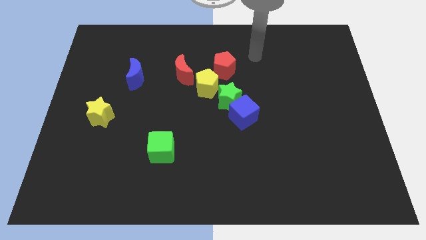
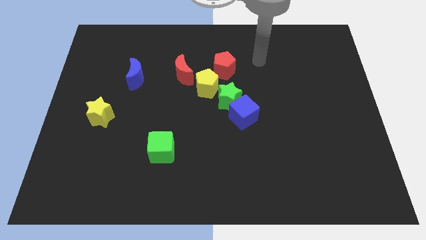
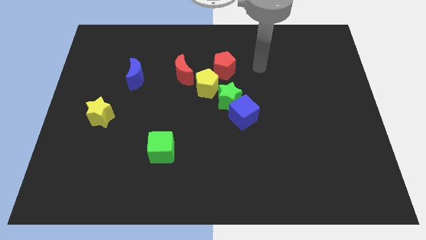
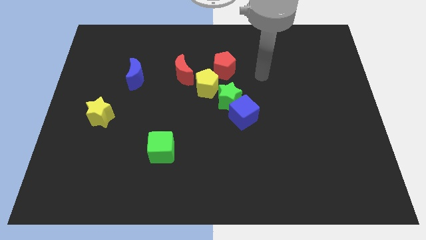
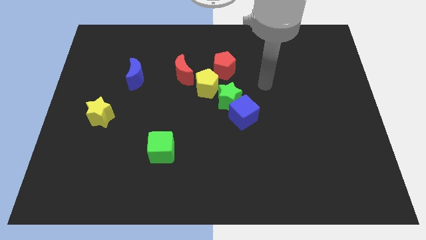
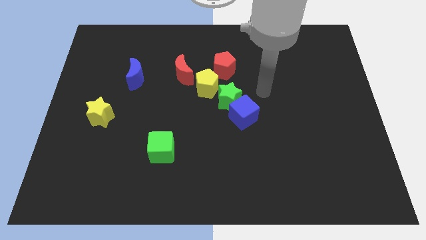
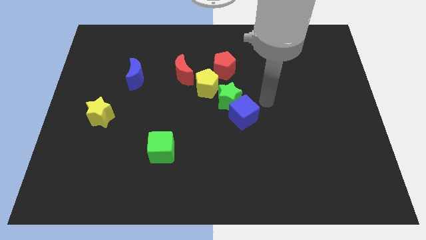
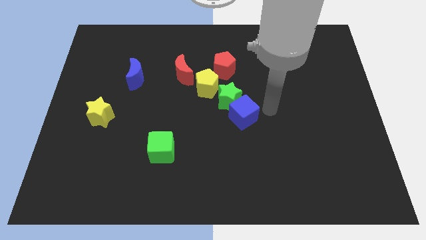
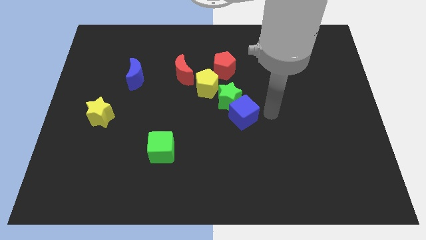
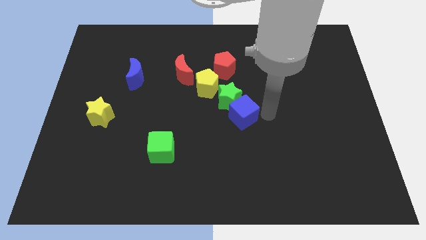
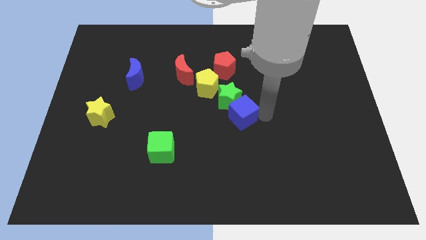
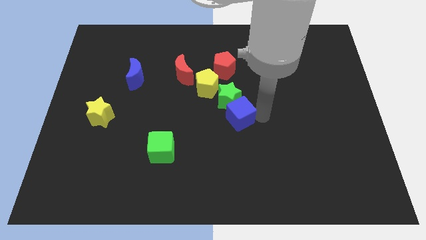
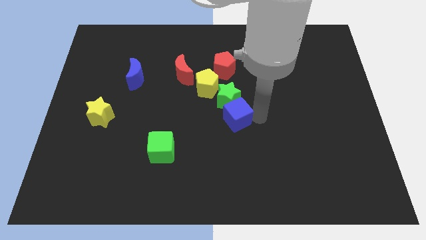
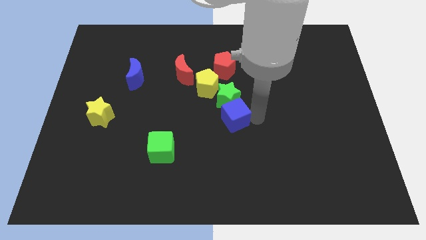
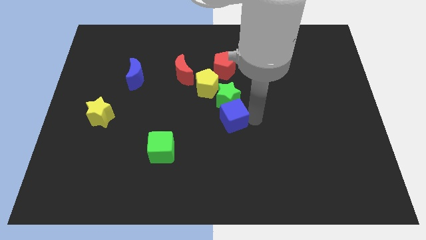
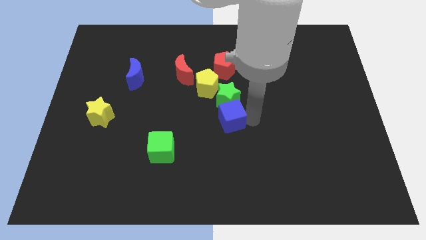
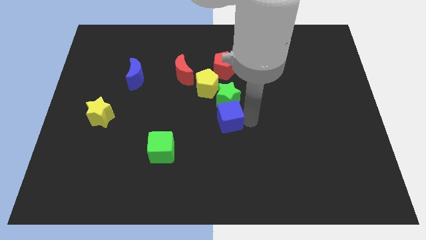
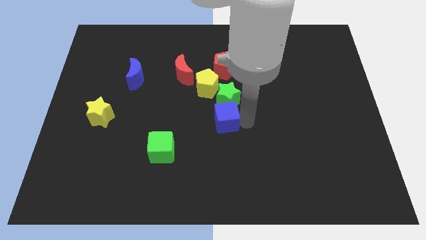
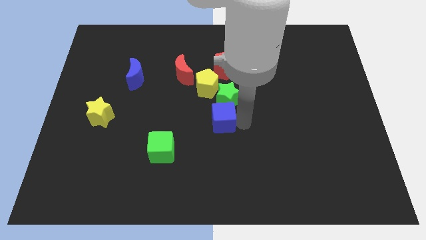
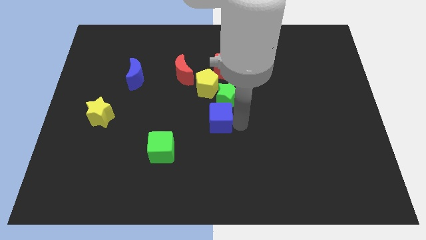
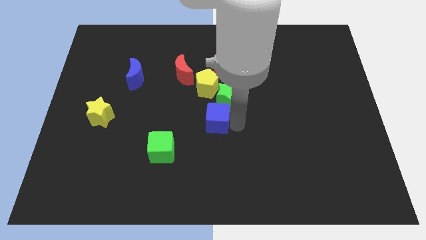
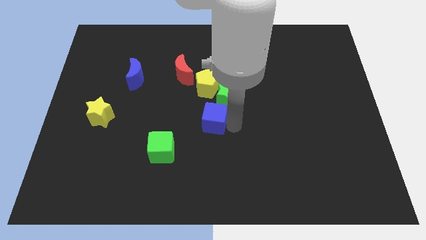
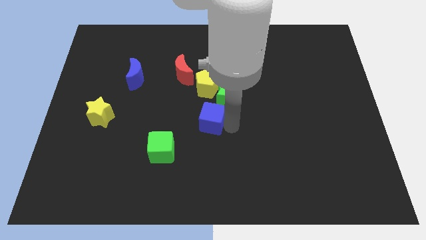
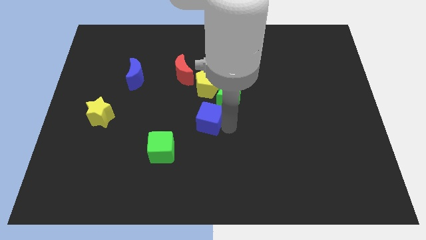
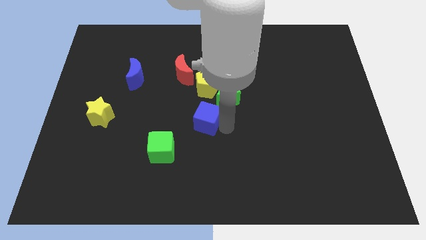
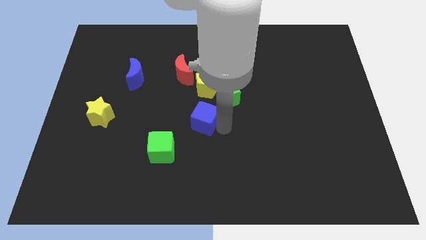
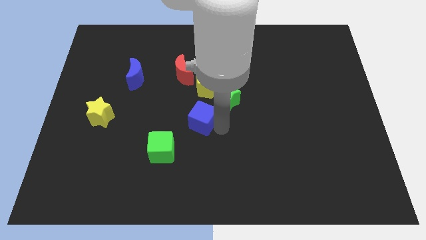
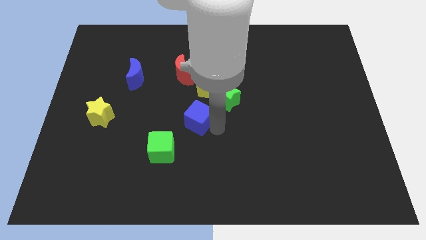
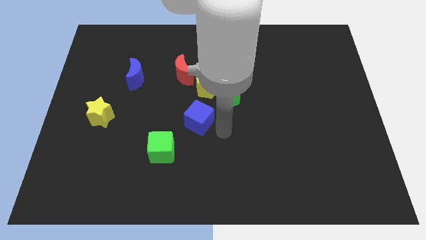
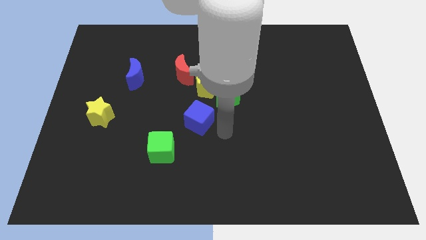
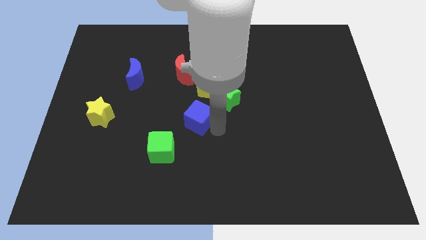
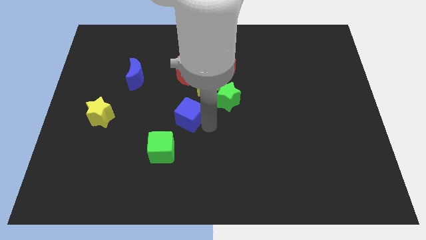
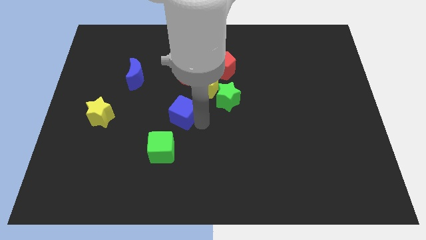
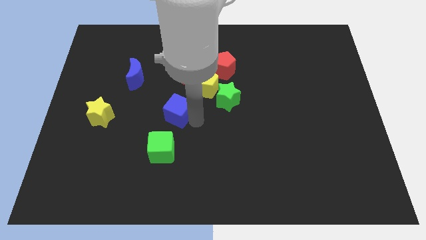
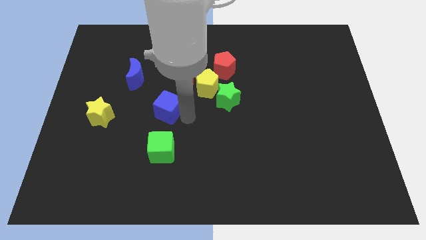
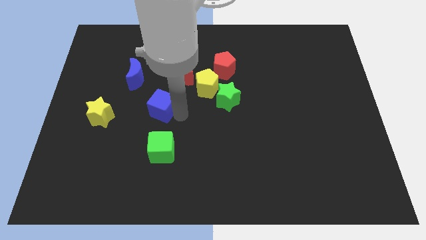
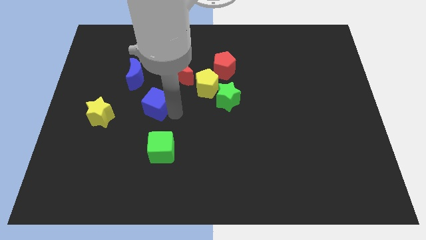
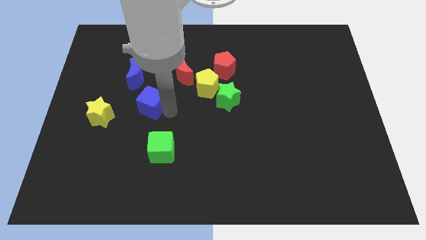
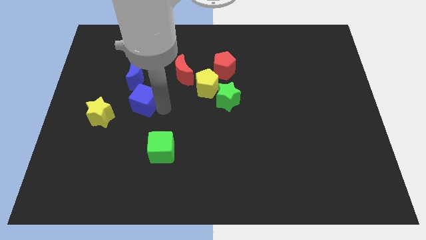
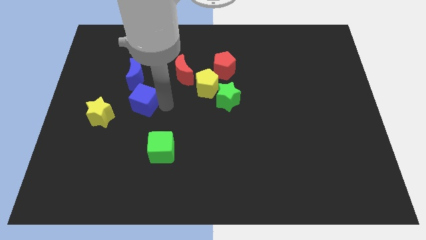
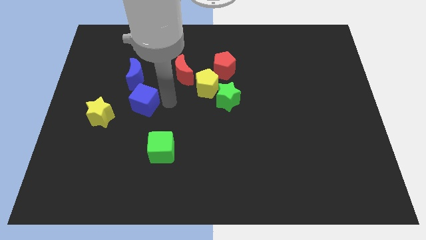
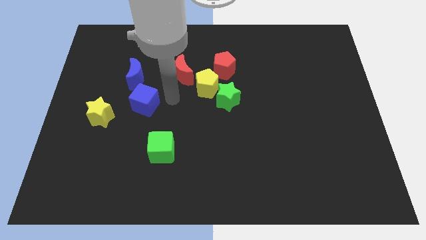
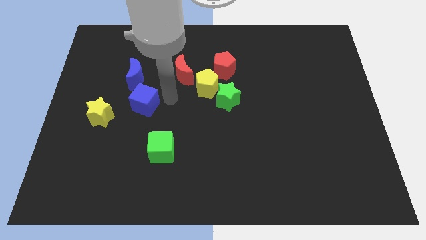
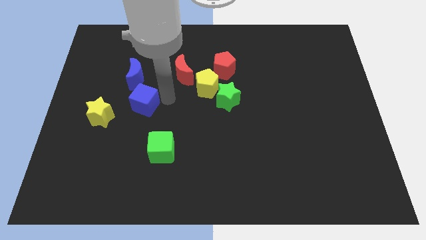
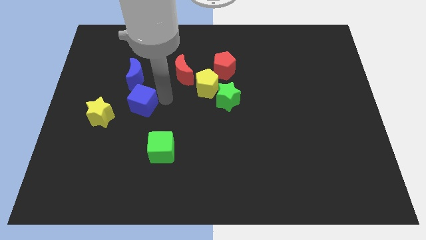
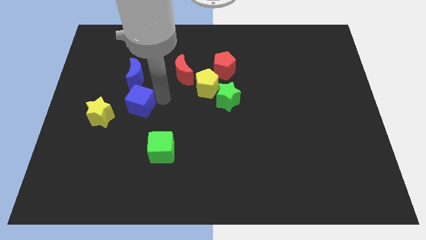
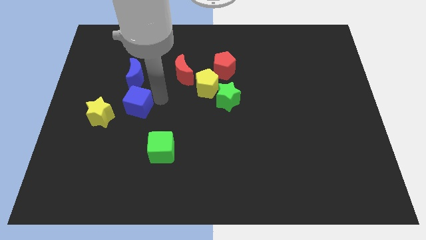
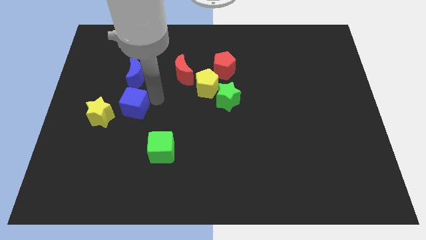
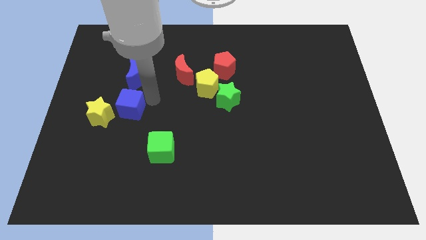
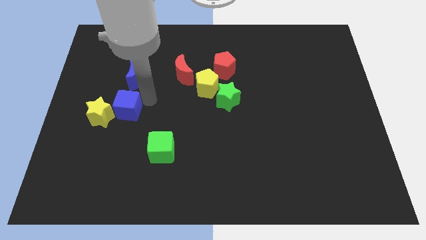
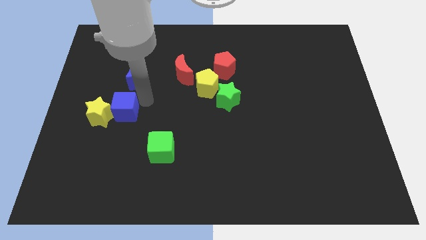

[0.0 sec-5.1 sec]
slide the blue cube next to the yellow star

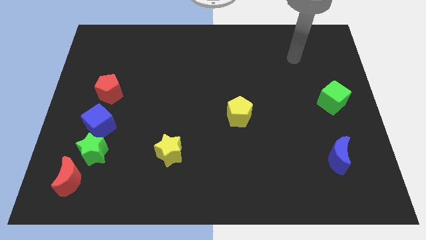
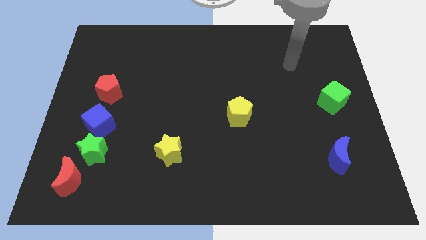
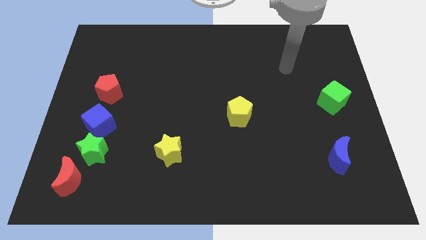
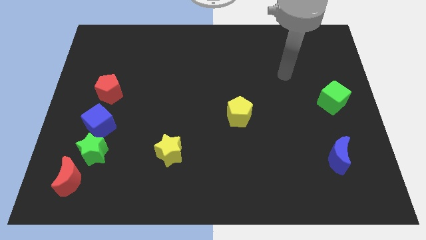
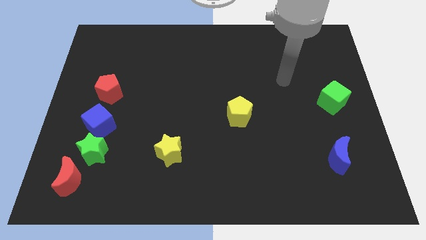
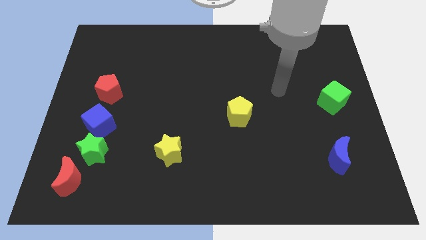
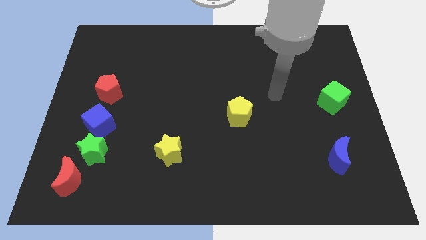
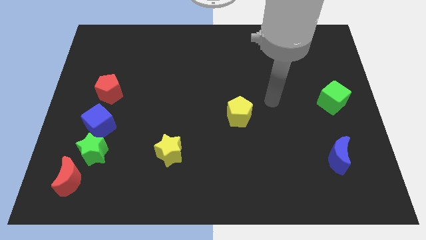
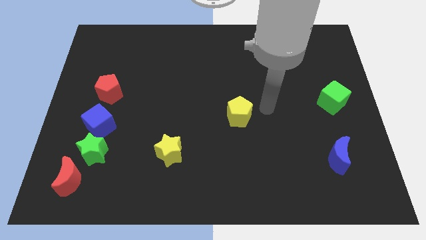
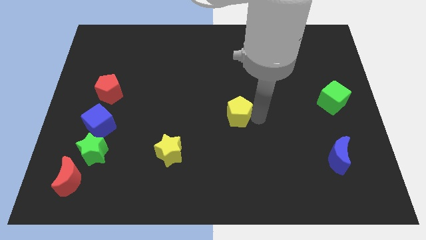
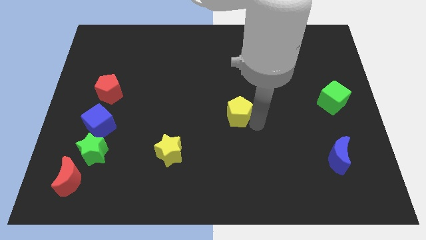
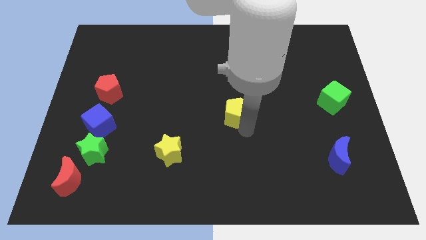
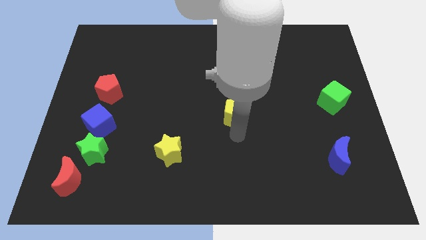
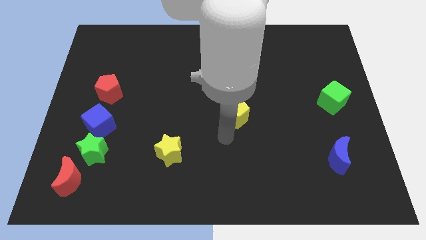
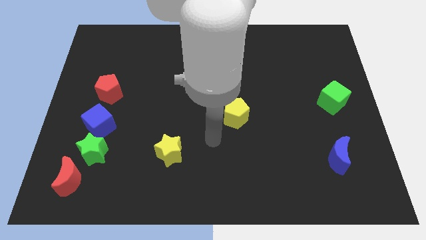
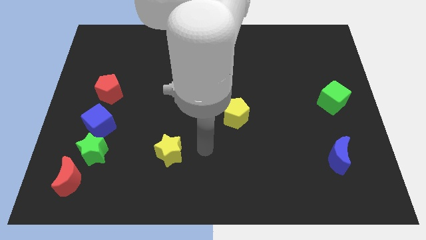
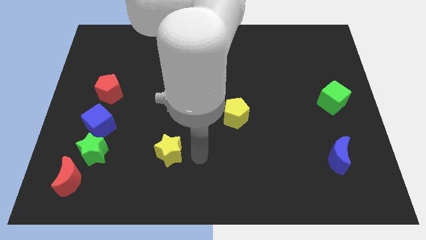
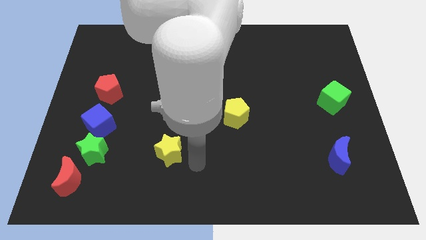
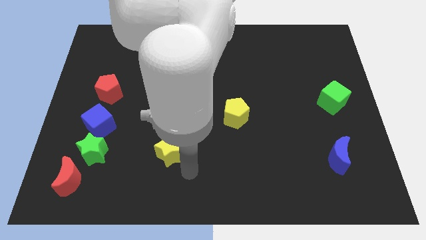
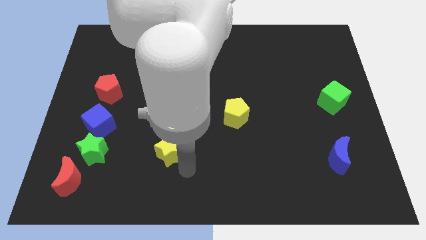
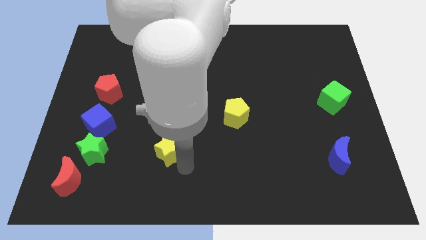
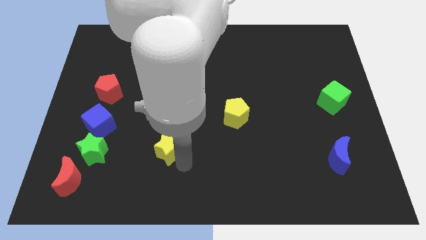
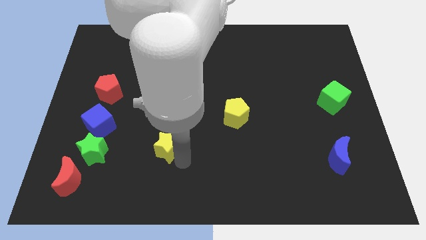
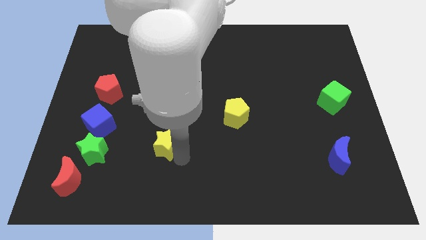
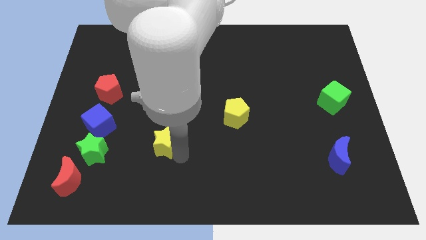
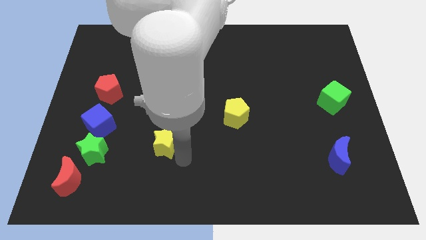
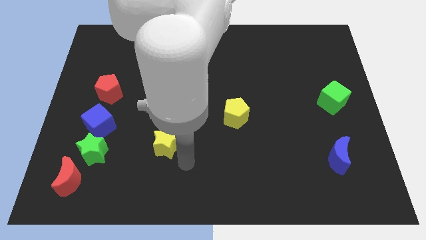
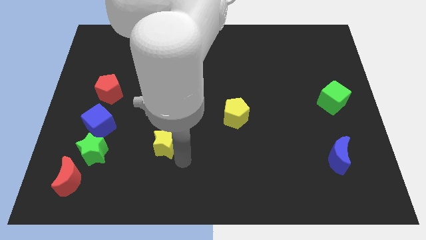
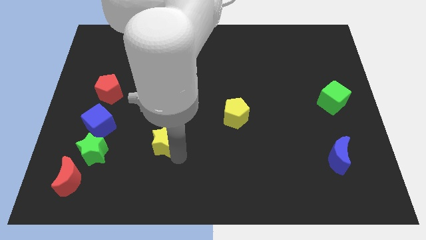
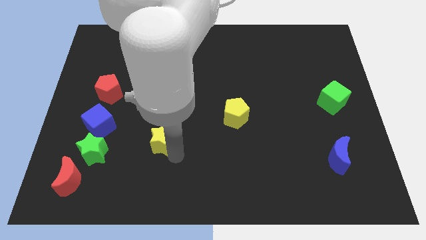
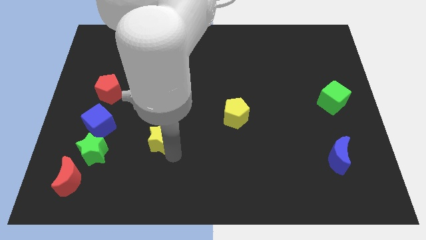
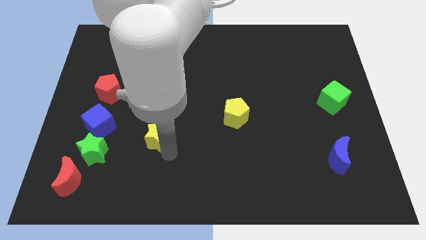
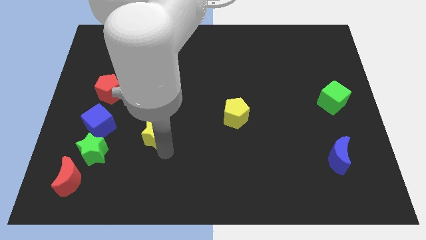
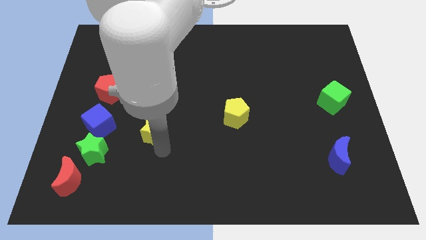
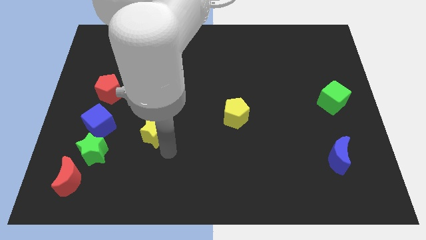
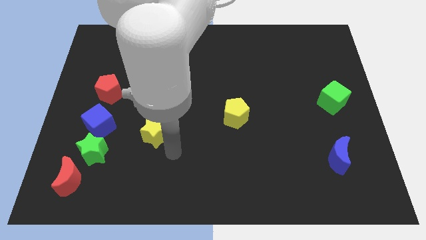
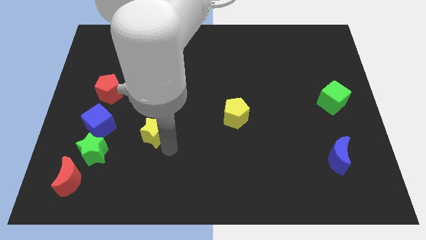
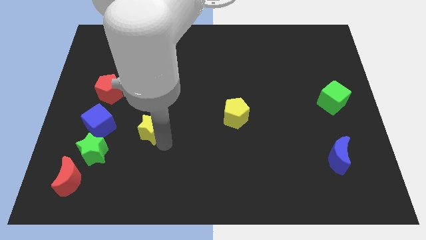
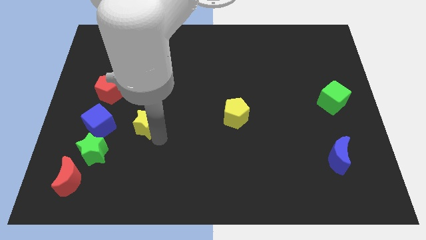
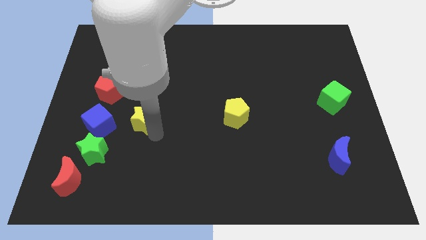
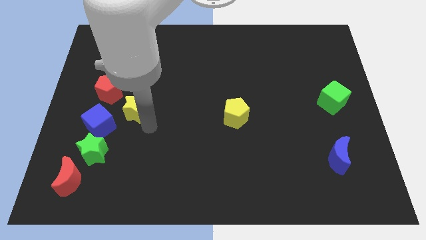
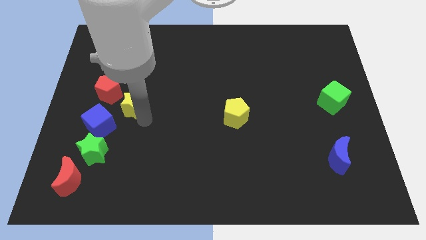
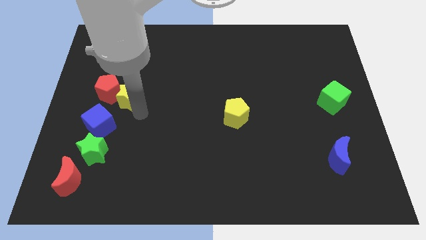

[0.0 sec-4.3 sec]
push the yellow star to the red pentagon
